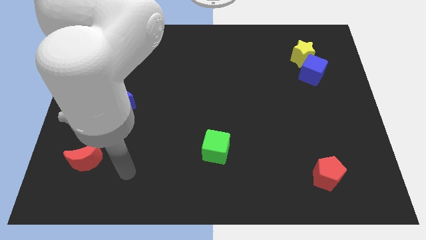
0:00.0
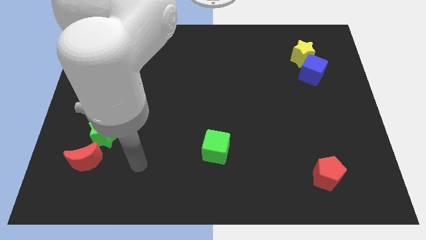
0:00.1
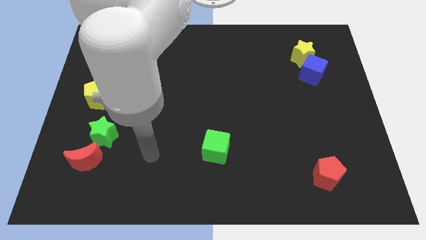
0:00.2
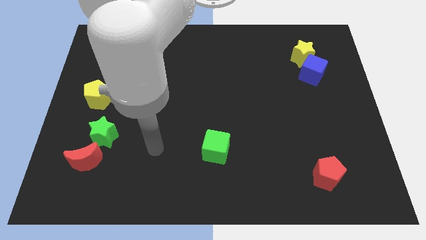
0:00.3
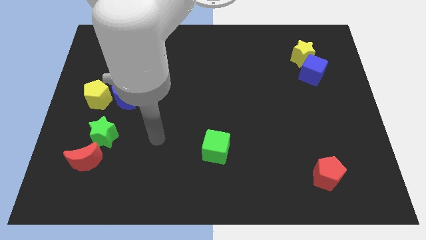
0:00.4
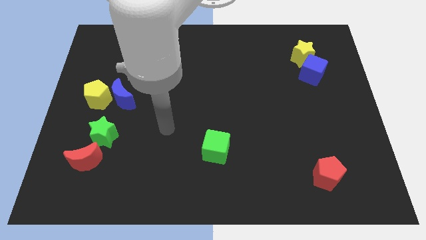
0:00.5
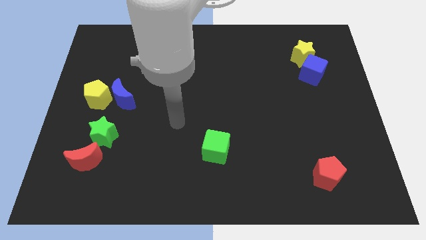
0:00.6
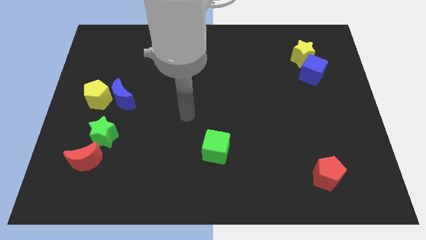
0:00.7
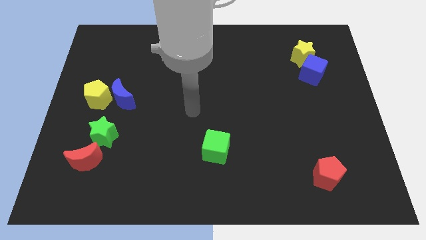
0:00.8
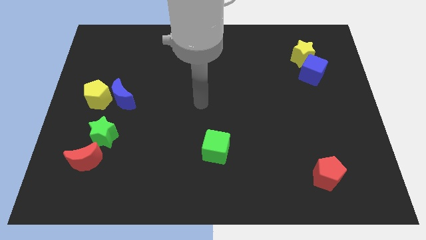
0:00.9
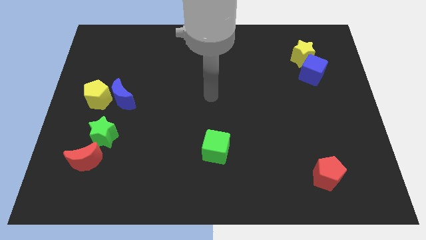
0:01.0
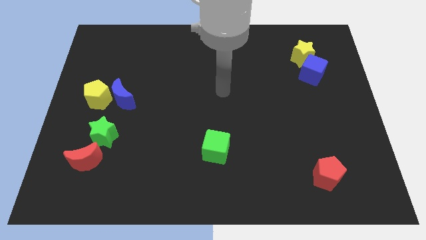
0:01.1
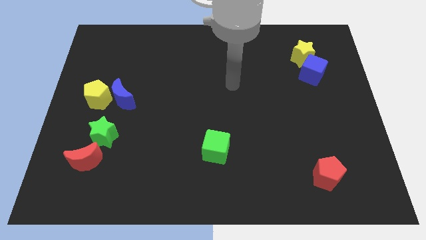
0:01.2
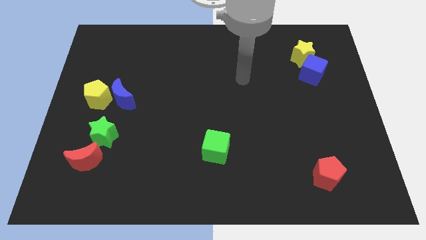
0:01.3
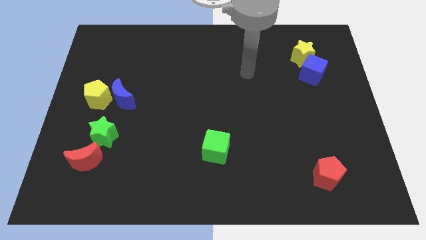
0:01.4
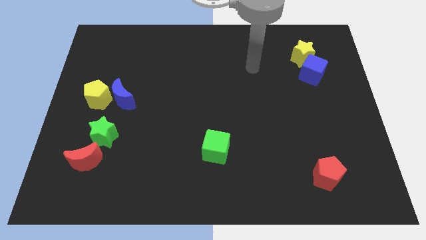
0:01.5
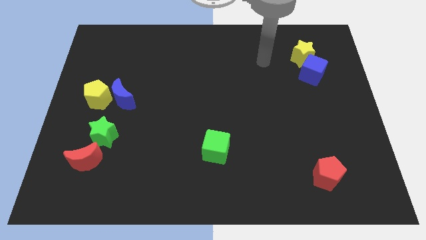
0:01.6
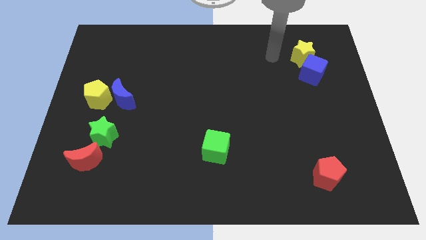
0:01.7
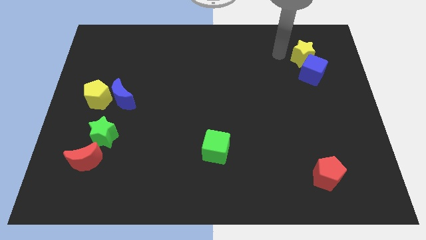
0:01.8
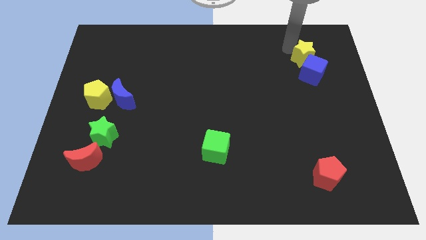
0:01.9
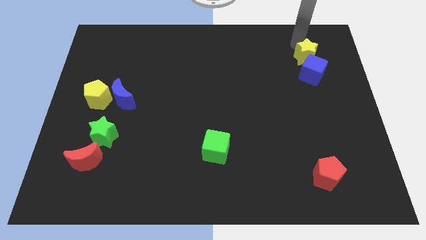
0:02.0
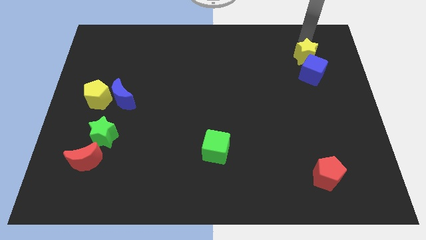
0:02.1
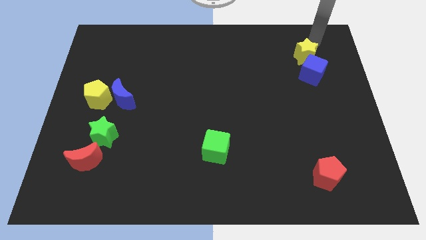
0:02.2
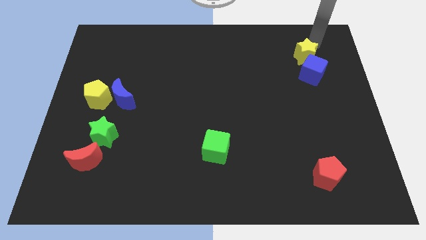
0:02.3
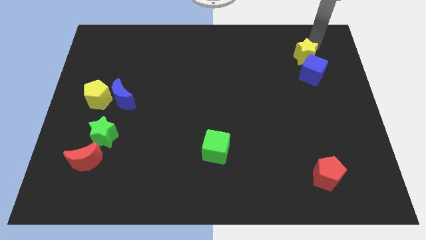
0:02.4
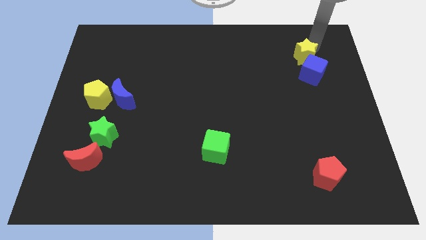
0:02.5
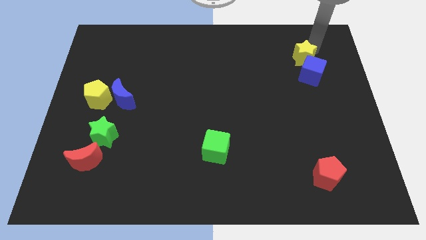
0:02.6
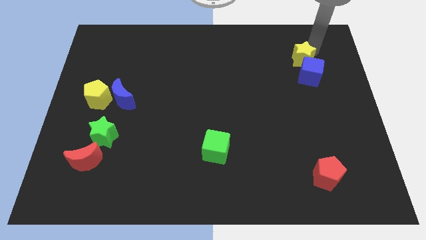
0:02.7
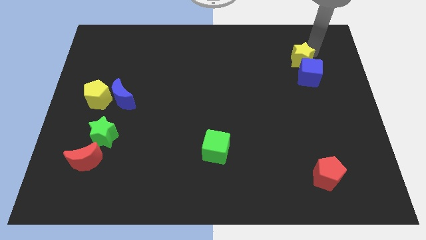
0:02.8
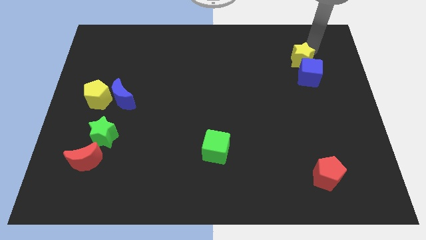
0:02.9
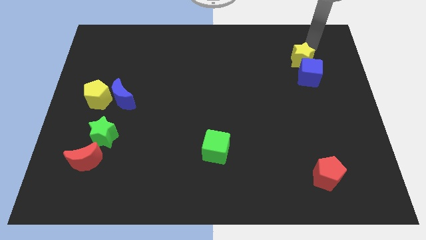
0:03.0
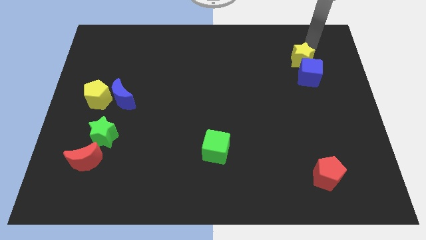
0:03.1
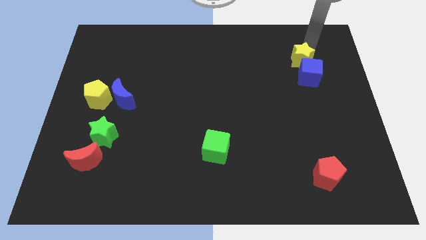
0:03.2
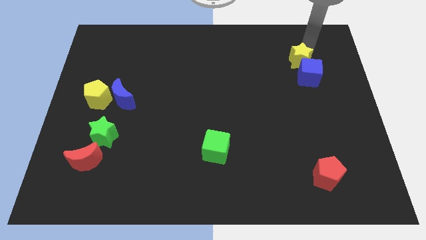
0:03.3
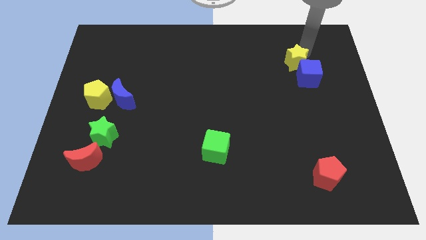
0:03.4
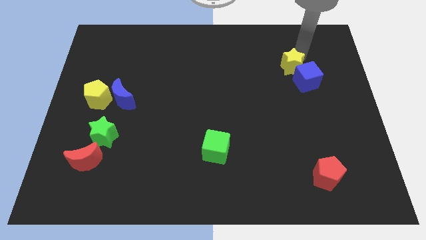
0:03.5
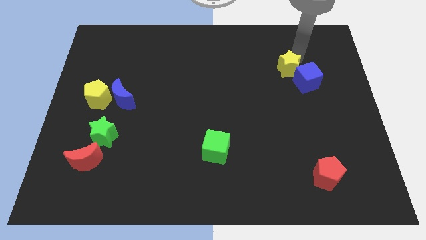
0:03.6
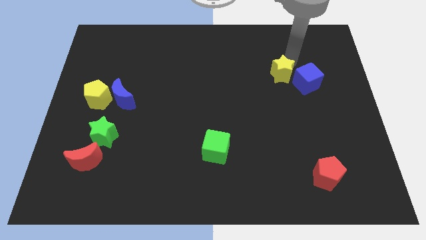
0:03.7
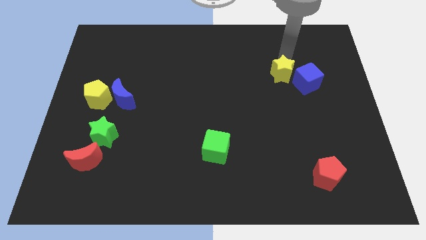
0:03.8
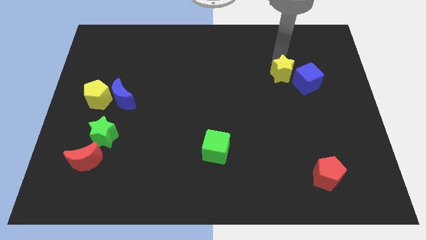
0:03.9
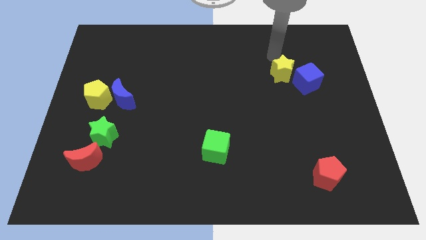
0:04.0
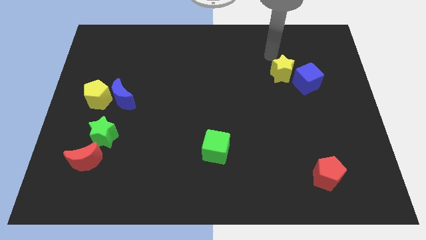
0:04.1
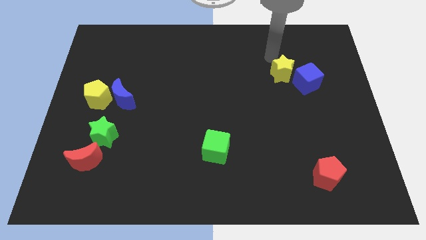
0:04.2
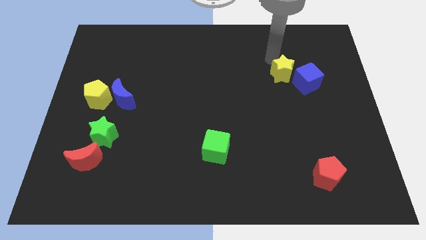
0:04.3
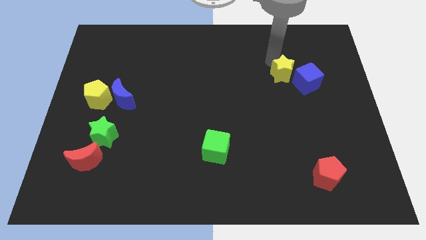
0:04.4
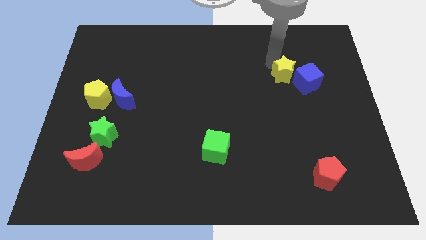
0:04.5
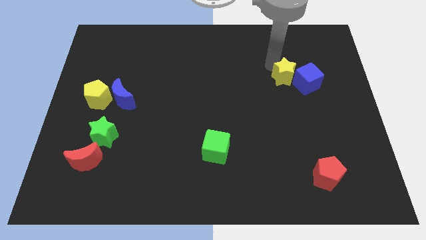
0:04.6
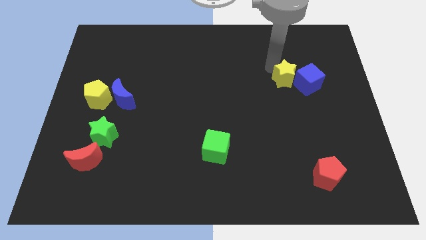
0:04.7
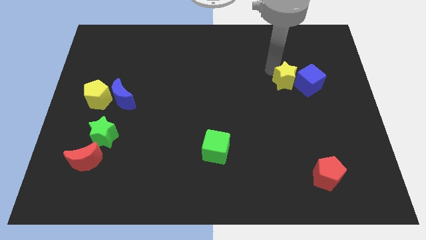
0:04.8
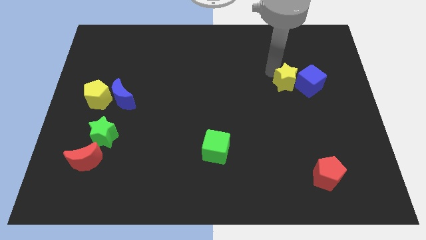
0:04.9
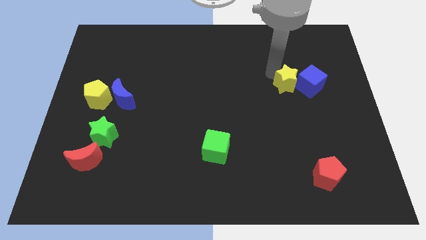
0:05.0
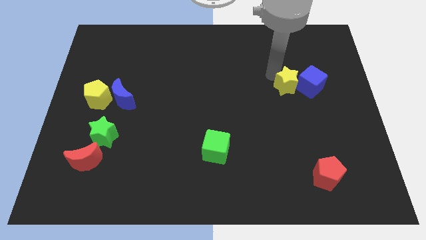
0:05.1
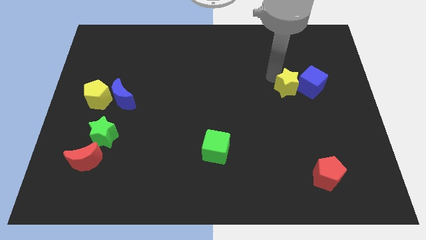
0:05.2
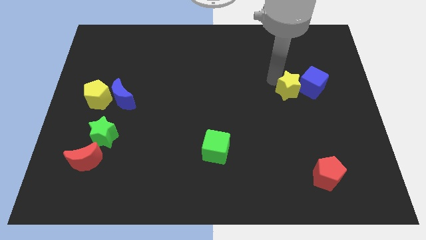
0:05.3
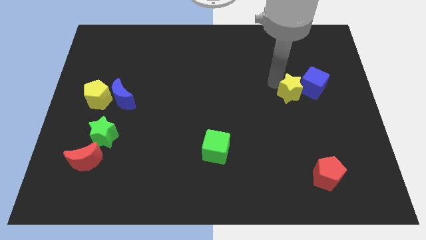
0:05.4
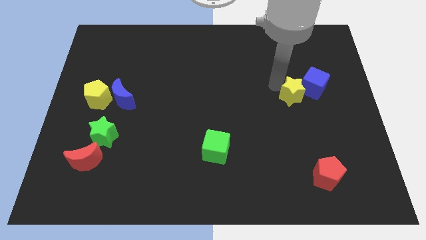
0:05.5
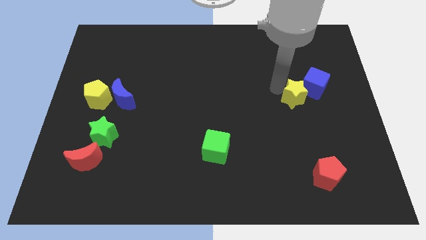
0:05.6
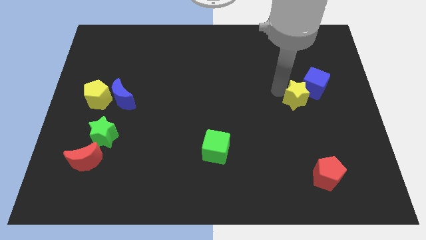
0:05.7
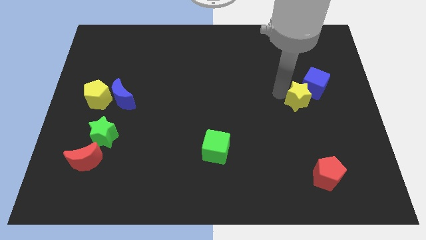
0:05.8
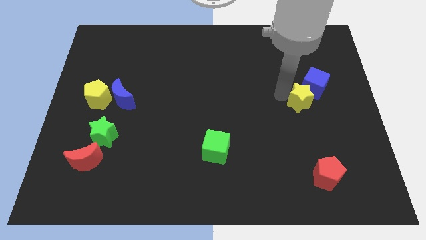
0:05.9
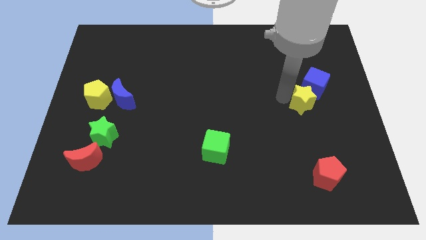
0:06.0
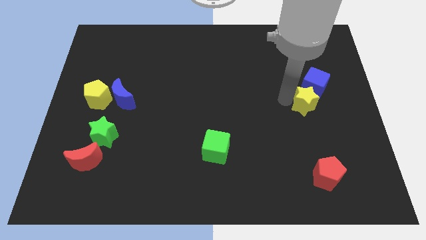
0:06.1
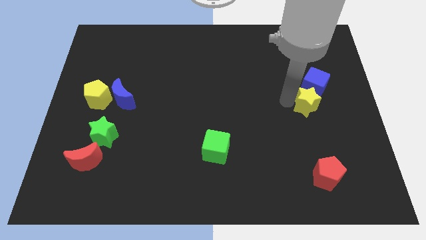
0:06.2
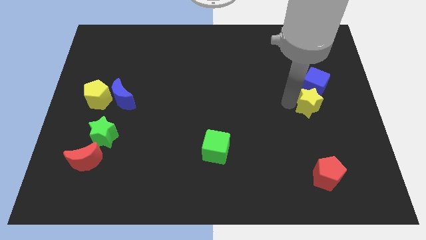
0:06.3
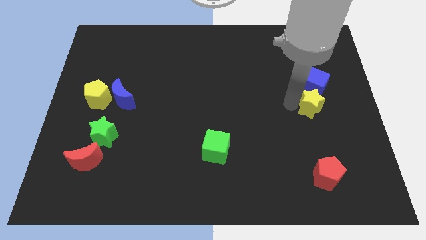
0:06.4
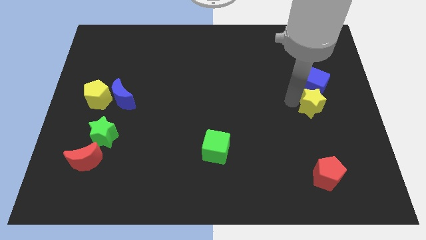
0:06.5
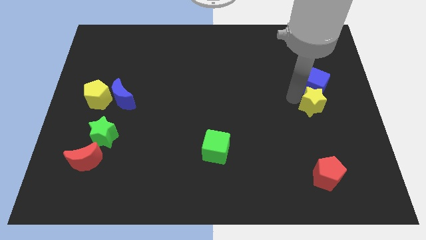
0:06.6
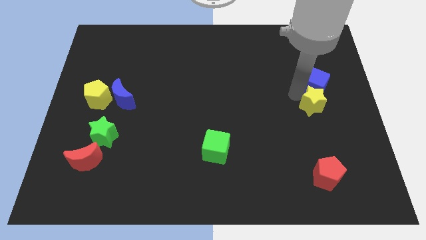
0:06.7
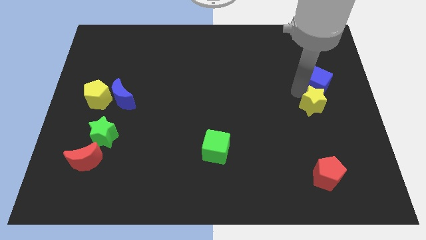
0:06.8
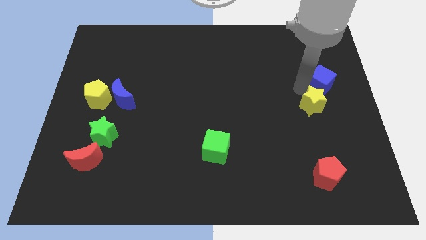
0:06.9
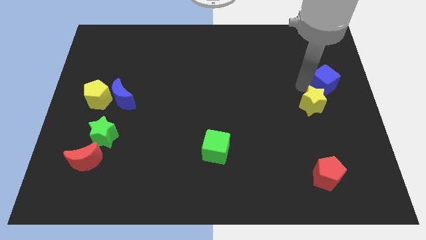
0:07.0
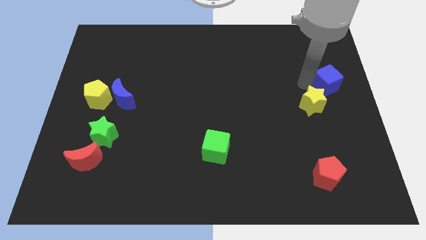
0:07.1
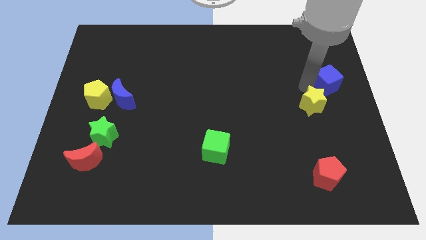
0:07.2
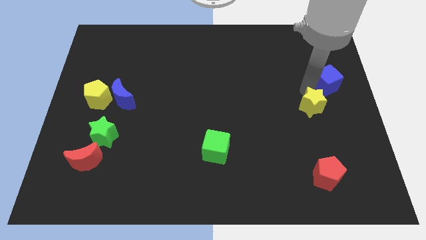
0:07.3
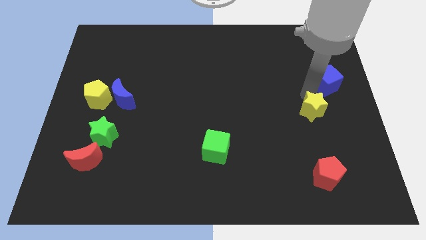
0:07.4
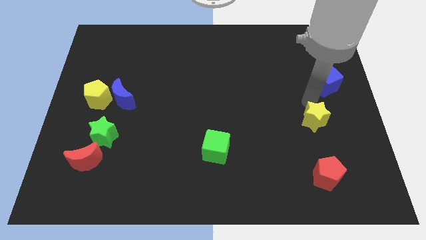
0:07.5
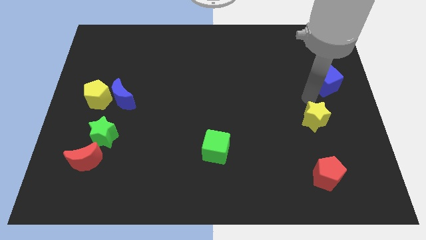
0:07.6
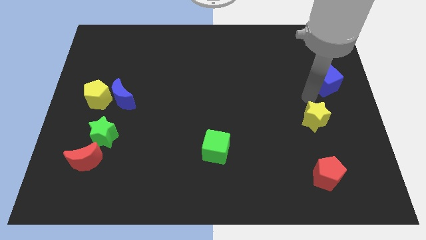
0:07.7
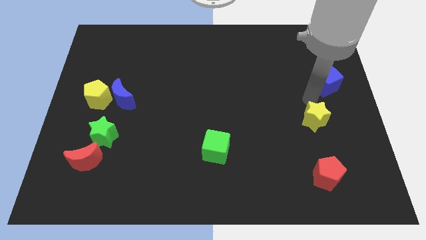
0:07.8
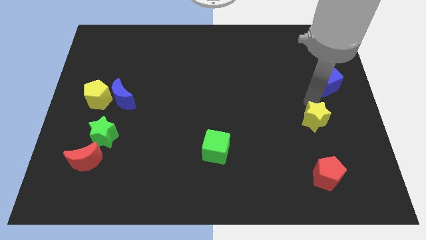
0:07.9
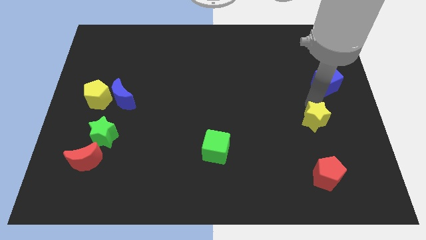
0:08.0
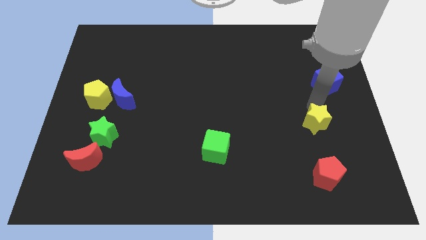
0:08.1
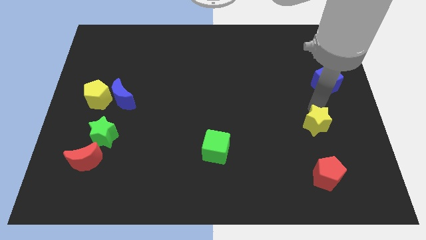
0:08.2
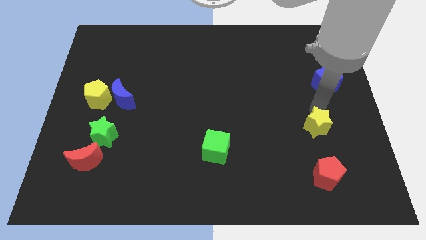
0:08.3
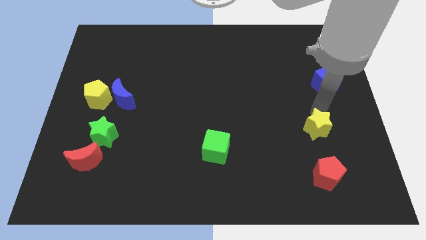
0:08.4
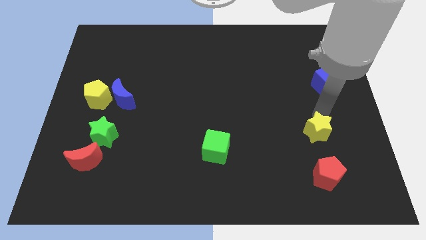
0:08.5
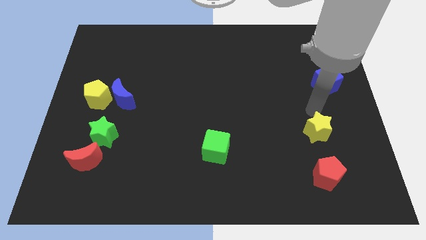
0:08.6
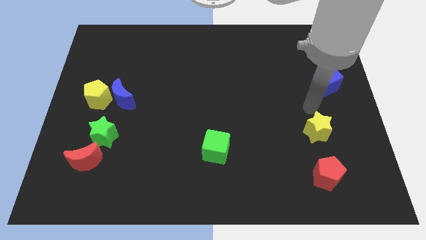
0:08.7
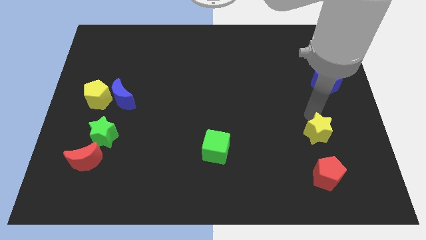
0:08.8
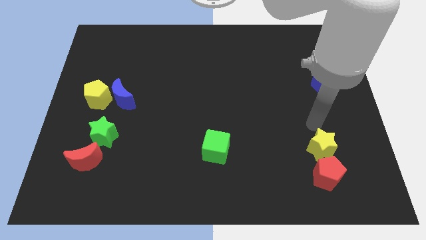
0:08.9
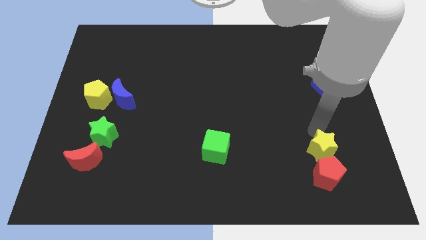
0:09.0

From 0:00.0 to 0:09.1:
put the yellow star to the red pentagon
